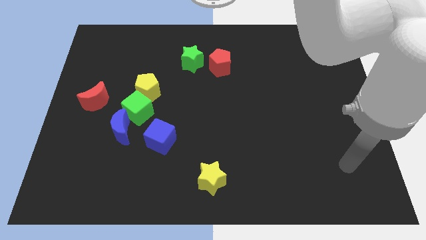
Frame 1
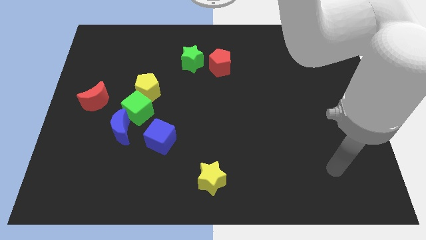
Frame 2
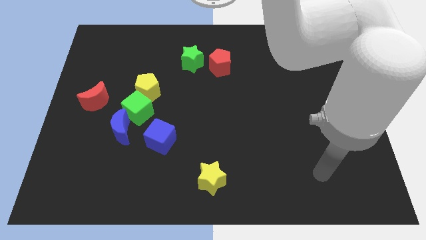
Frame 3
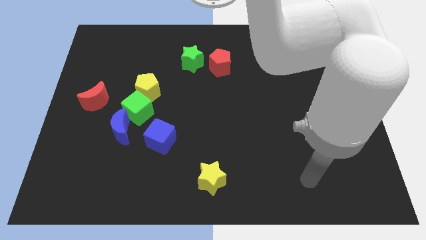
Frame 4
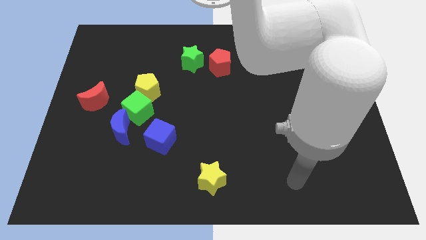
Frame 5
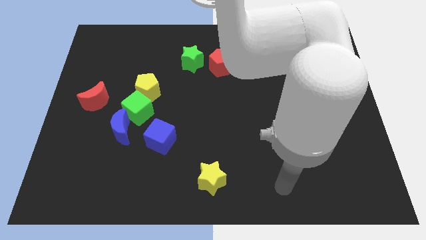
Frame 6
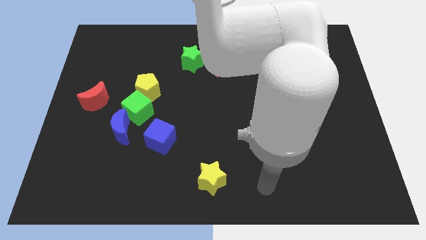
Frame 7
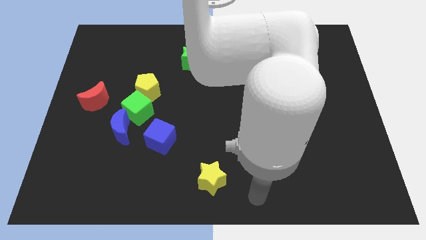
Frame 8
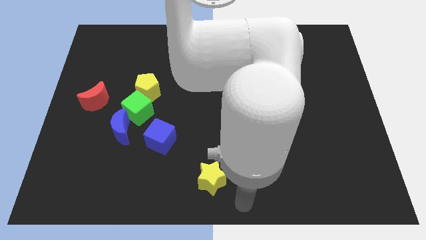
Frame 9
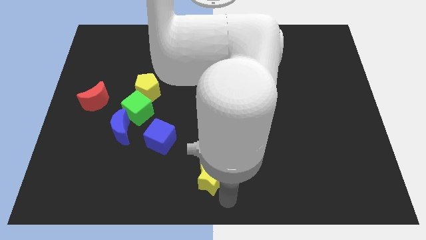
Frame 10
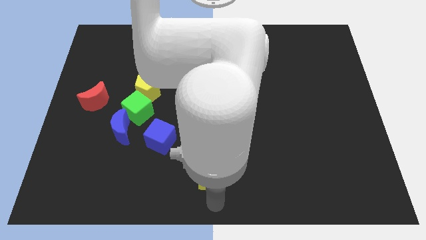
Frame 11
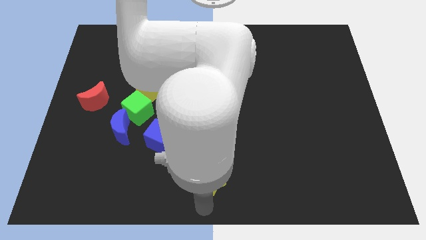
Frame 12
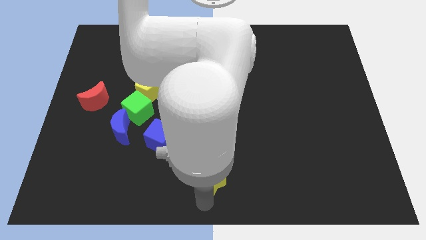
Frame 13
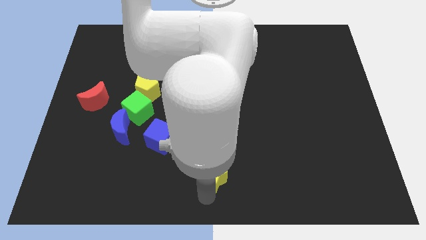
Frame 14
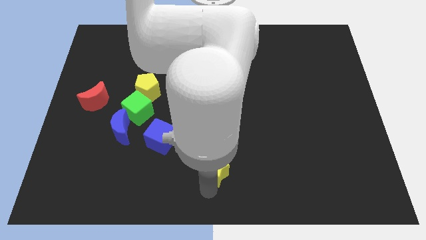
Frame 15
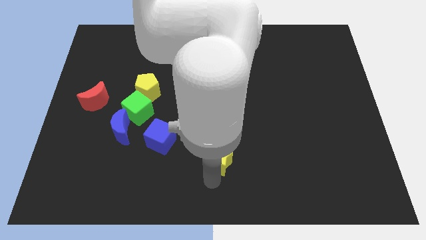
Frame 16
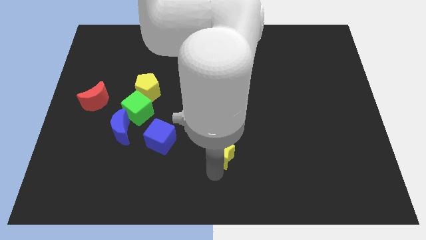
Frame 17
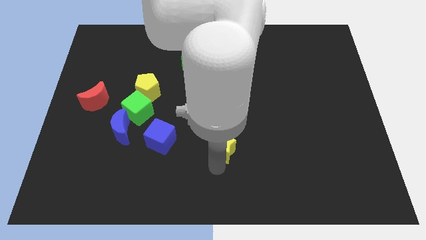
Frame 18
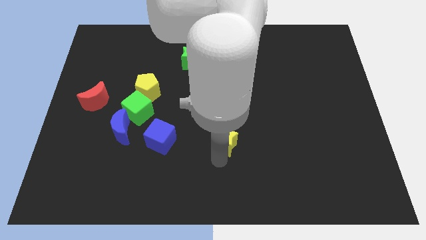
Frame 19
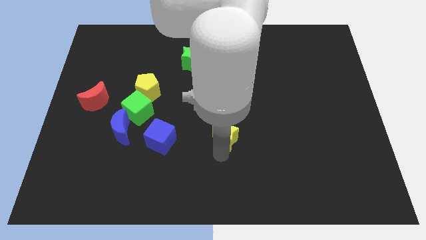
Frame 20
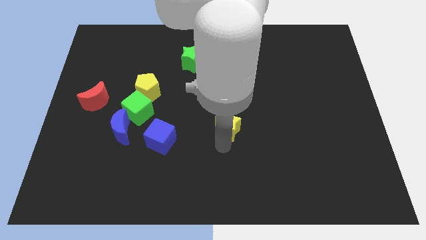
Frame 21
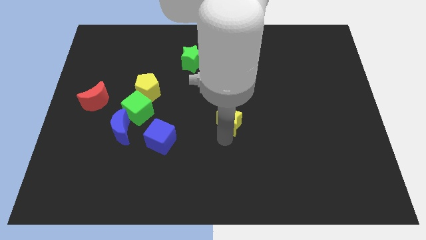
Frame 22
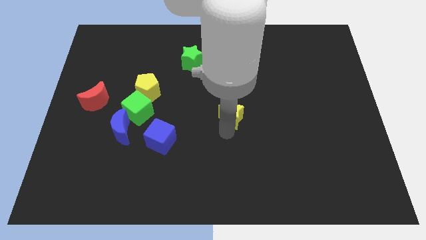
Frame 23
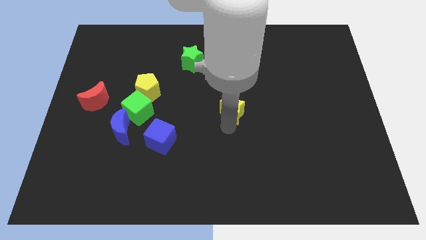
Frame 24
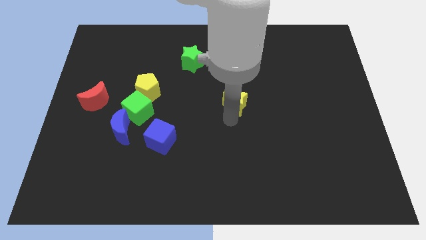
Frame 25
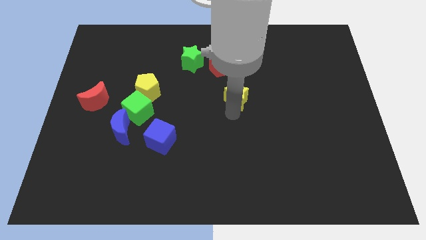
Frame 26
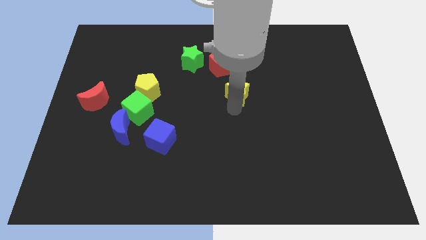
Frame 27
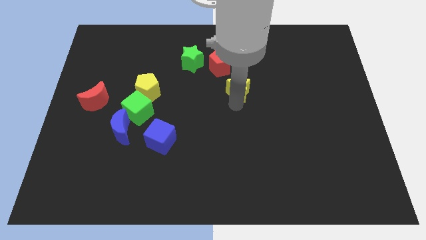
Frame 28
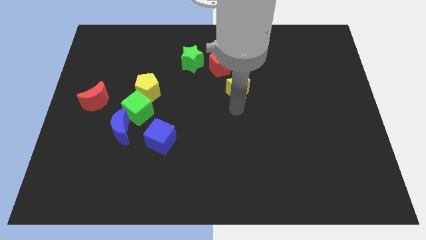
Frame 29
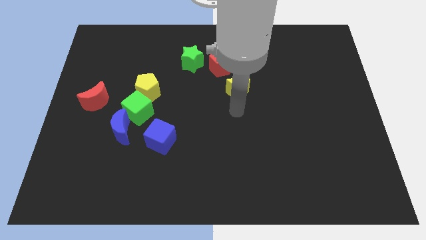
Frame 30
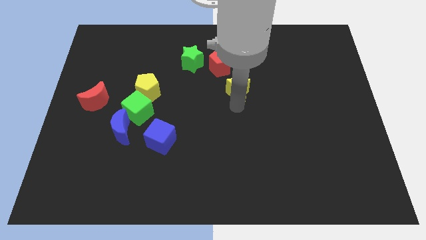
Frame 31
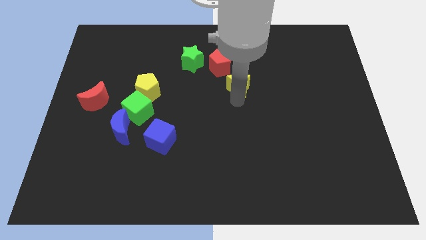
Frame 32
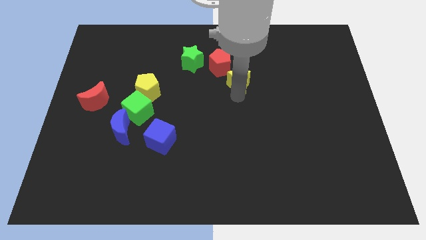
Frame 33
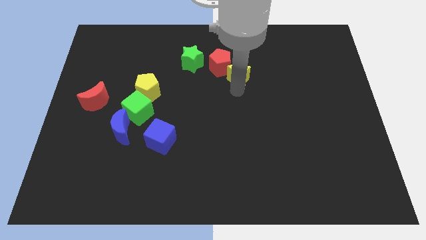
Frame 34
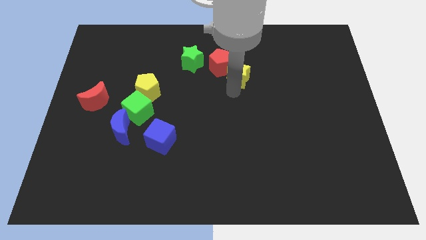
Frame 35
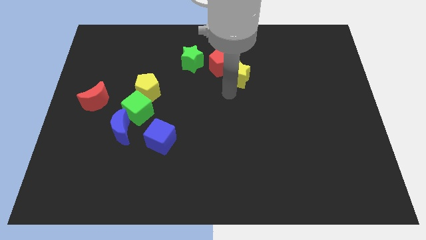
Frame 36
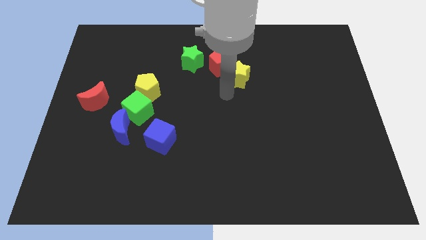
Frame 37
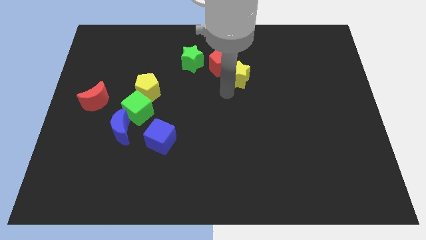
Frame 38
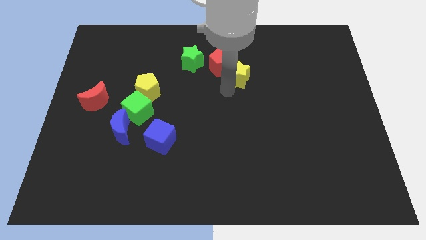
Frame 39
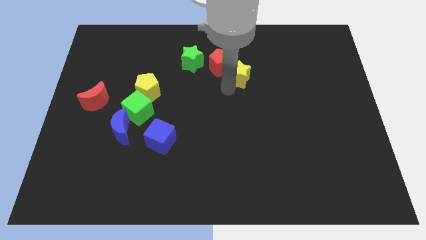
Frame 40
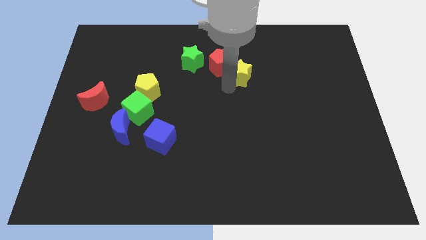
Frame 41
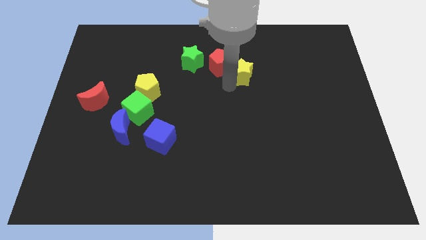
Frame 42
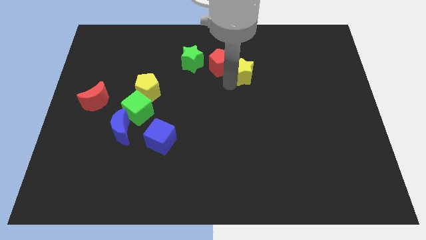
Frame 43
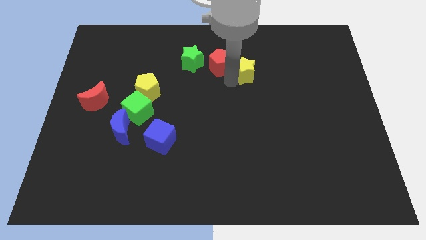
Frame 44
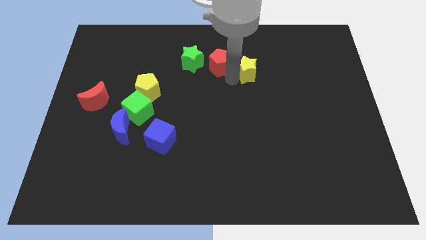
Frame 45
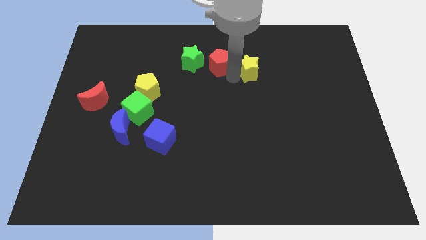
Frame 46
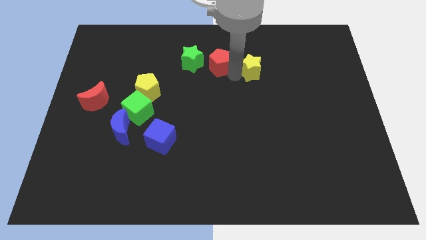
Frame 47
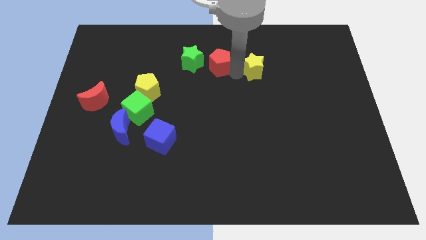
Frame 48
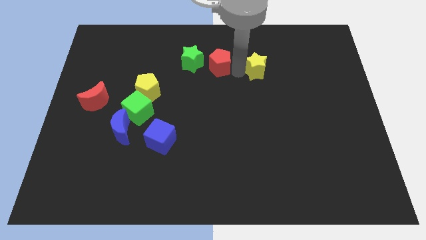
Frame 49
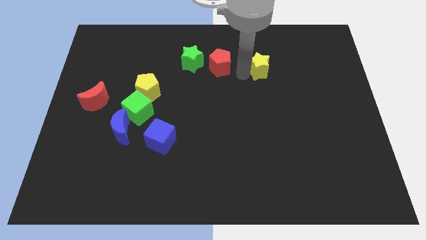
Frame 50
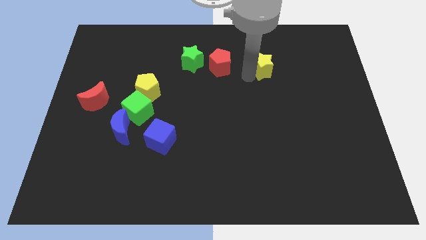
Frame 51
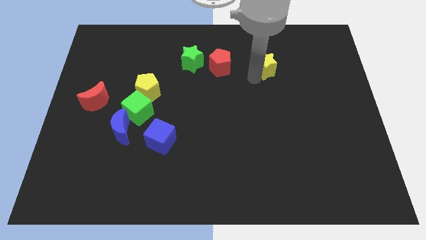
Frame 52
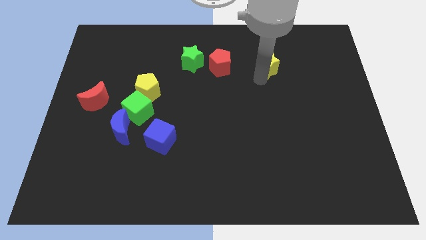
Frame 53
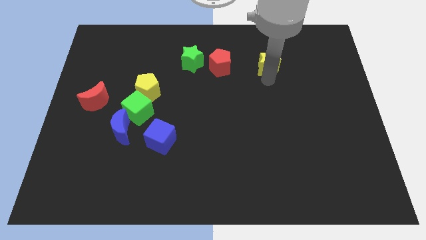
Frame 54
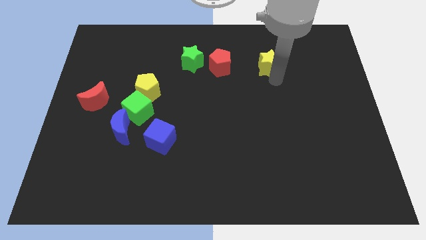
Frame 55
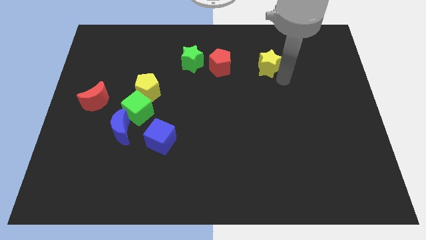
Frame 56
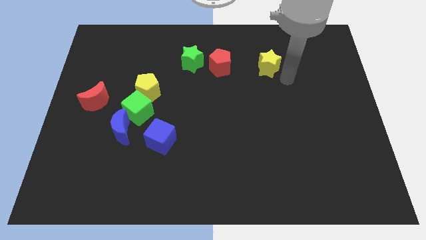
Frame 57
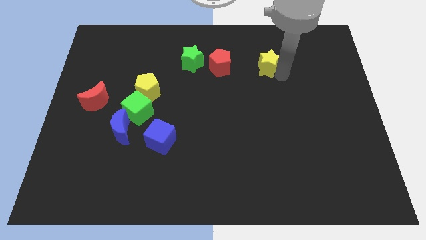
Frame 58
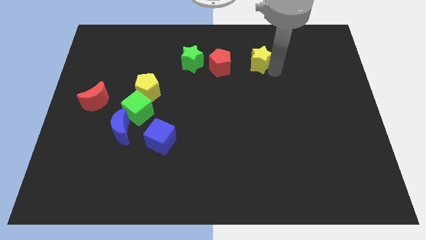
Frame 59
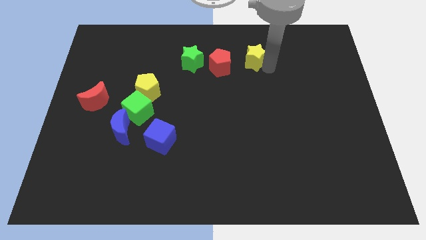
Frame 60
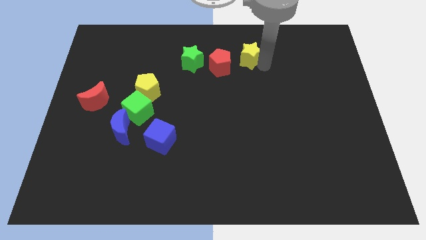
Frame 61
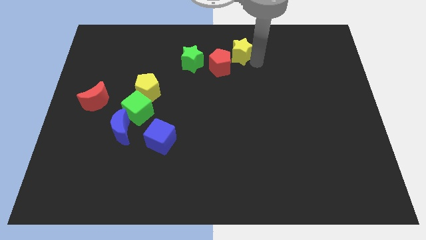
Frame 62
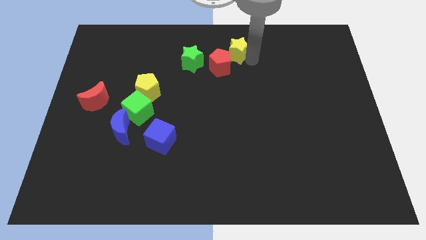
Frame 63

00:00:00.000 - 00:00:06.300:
slide the yellow star to the top
